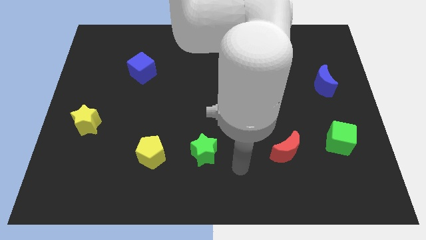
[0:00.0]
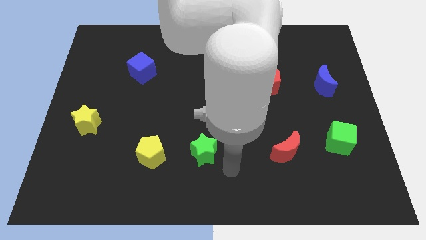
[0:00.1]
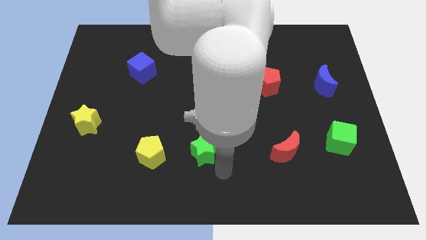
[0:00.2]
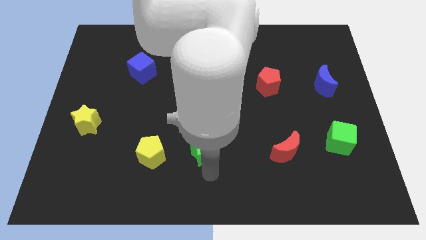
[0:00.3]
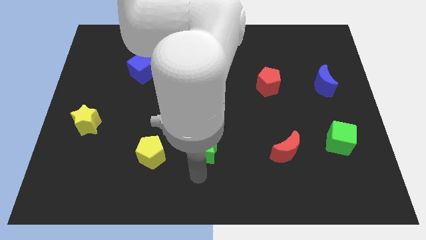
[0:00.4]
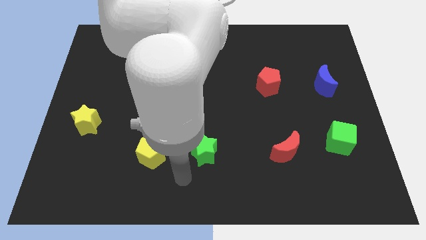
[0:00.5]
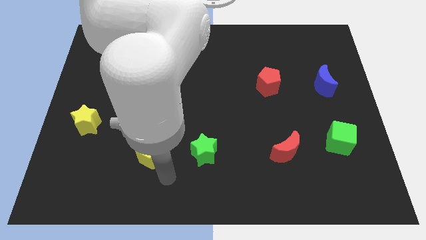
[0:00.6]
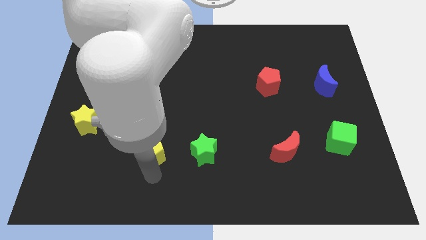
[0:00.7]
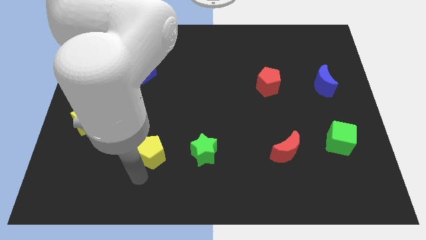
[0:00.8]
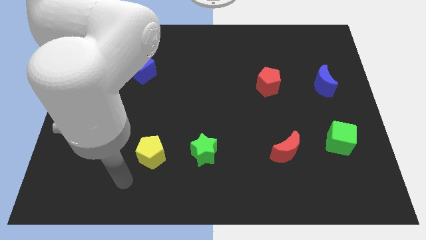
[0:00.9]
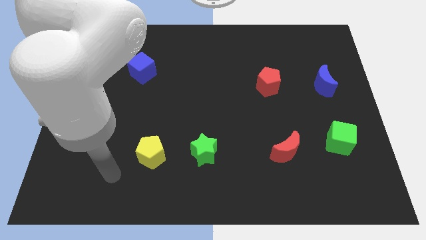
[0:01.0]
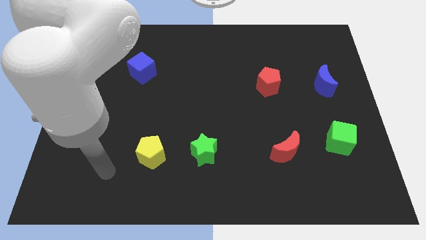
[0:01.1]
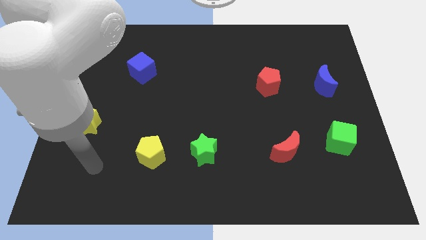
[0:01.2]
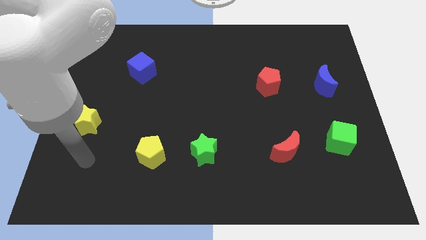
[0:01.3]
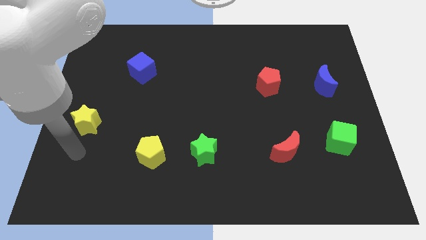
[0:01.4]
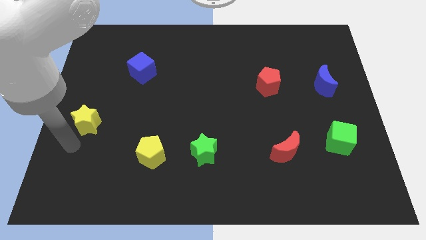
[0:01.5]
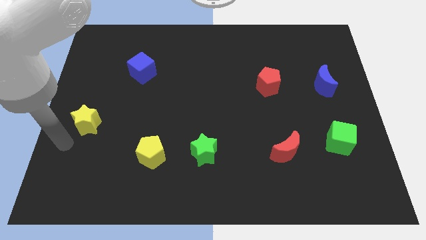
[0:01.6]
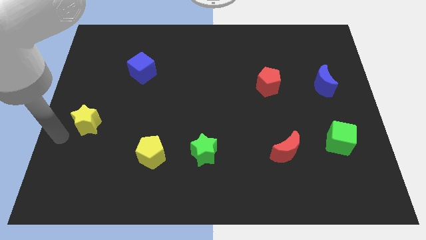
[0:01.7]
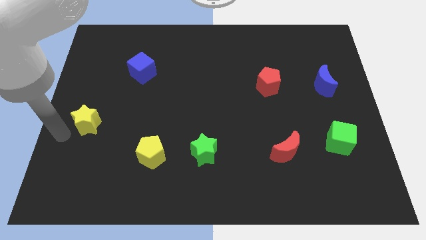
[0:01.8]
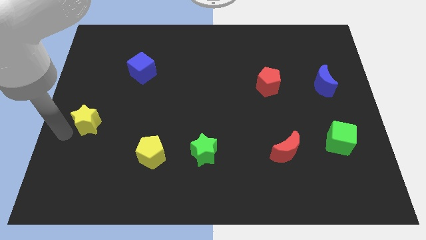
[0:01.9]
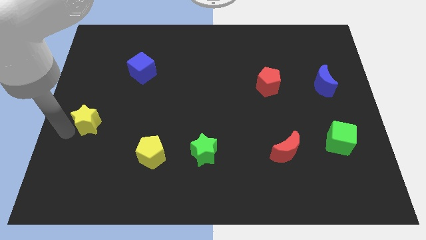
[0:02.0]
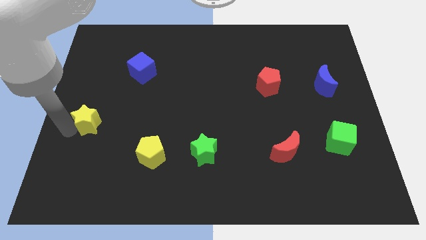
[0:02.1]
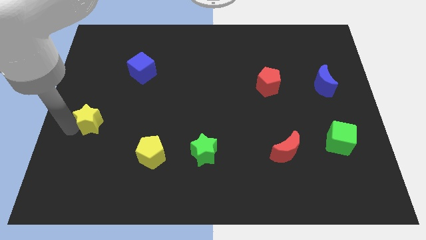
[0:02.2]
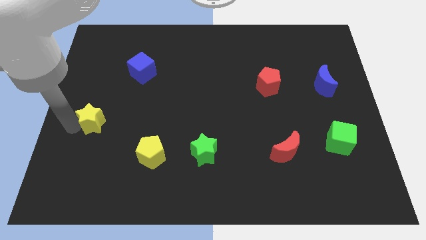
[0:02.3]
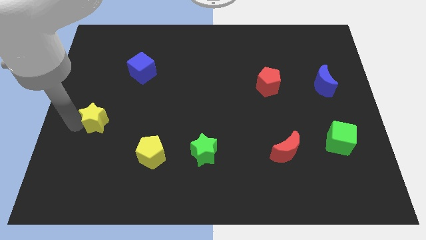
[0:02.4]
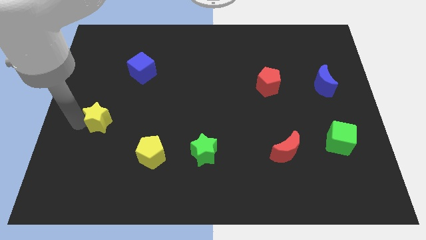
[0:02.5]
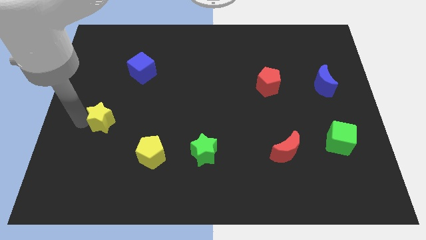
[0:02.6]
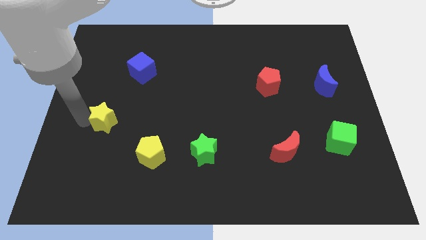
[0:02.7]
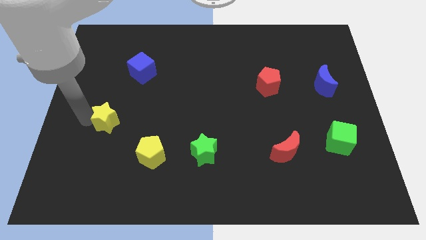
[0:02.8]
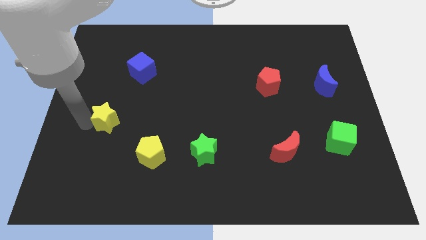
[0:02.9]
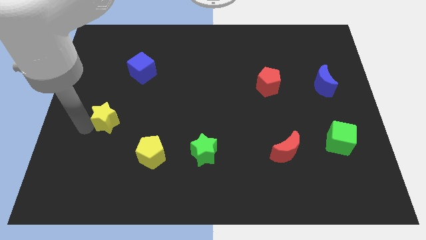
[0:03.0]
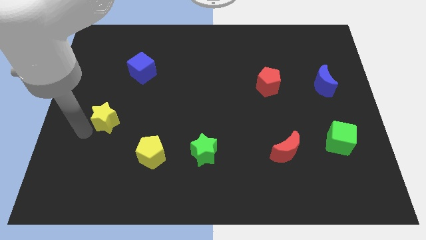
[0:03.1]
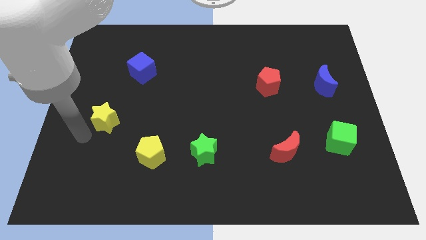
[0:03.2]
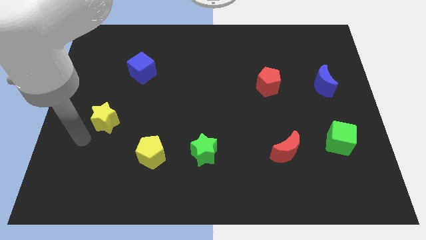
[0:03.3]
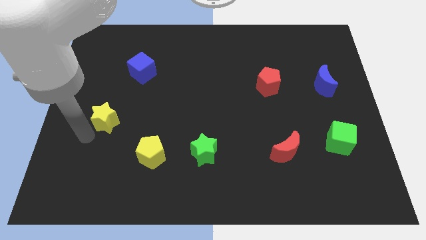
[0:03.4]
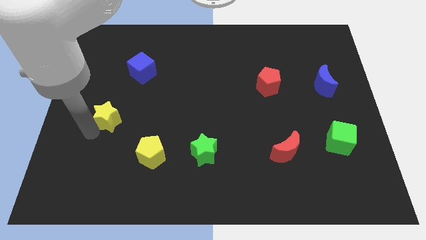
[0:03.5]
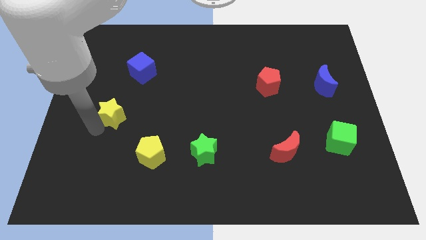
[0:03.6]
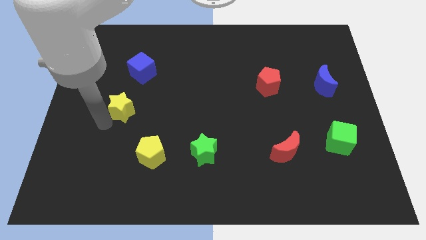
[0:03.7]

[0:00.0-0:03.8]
push the yellow star upwards and right diagonally slightly

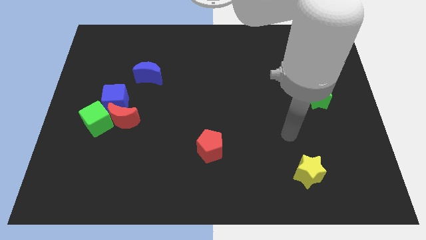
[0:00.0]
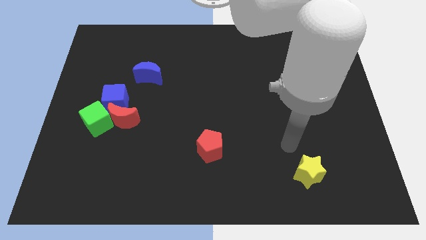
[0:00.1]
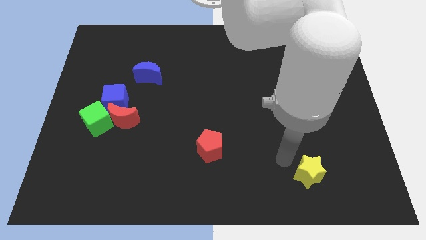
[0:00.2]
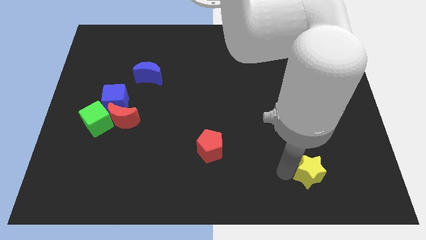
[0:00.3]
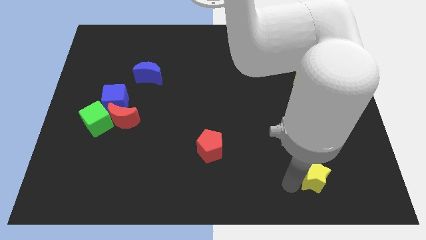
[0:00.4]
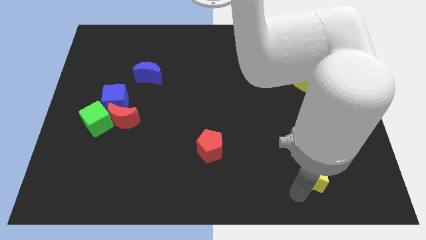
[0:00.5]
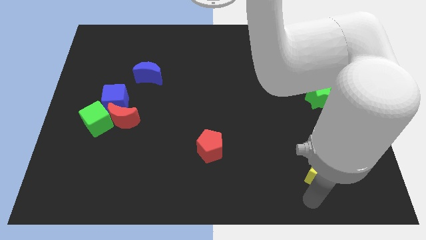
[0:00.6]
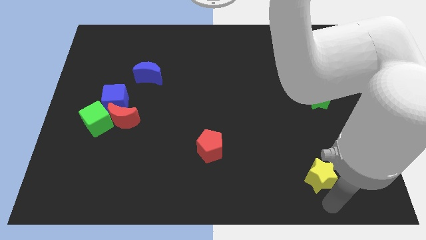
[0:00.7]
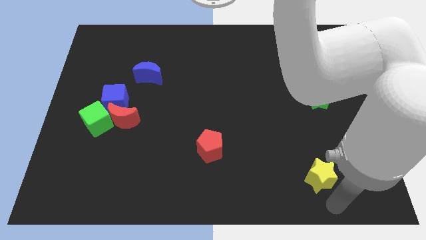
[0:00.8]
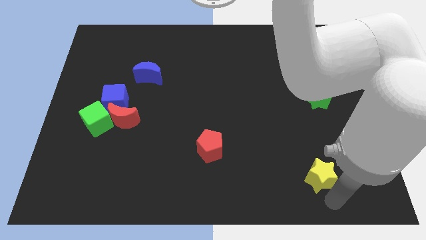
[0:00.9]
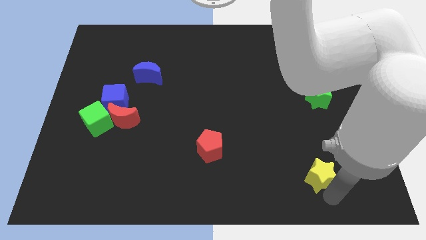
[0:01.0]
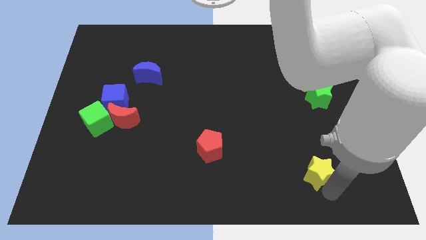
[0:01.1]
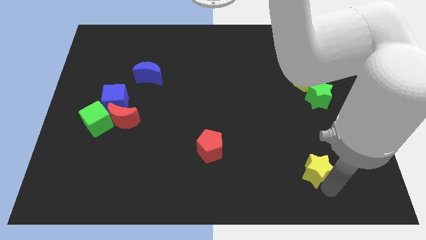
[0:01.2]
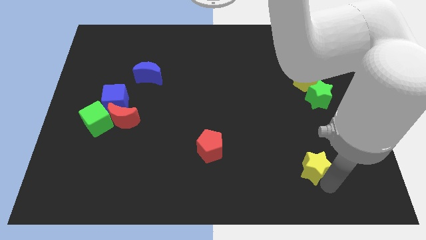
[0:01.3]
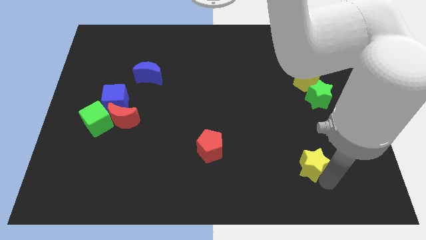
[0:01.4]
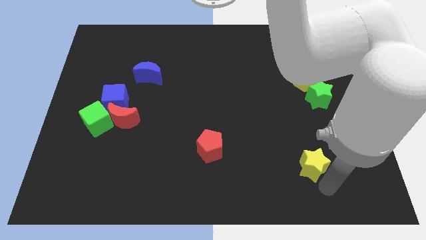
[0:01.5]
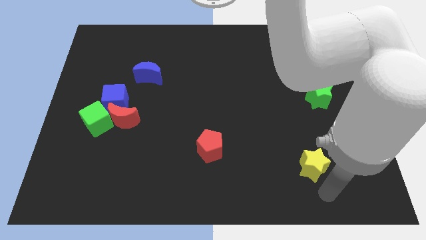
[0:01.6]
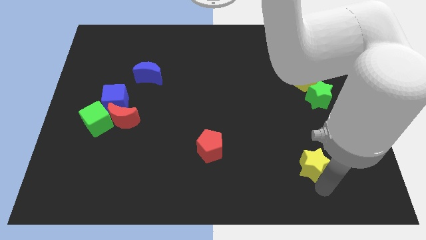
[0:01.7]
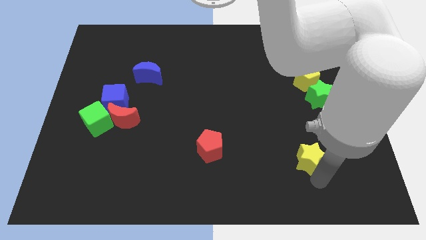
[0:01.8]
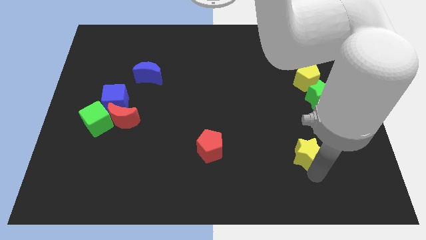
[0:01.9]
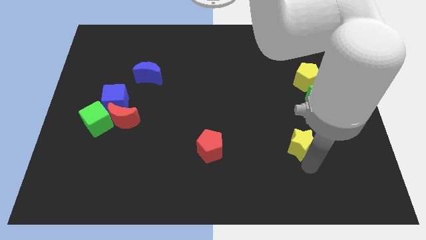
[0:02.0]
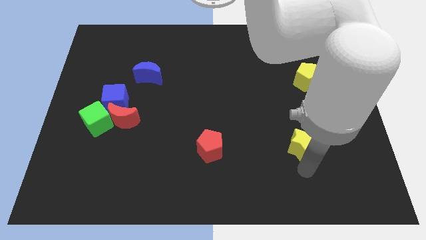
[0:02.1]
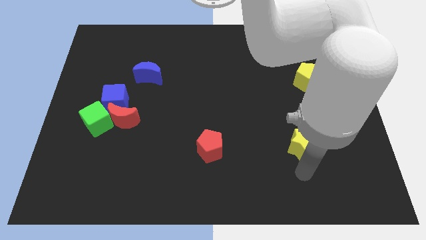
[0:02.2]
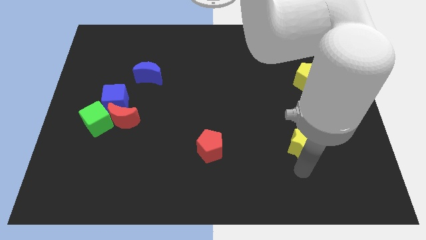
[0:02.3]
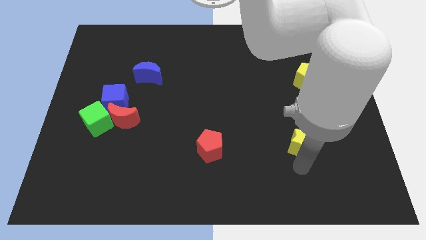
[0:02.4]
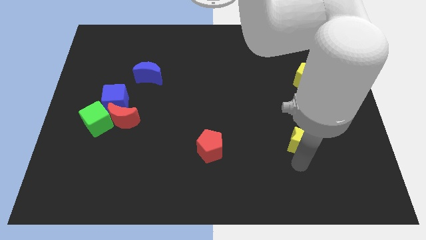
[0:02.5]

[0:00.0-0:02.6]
slightly slide the yellow star upwards

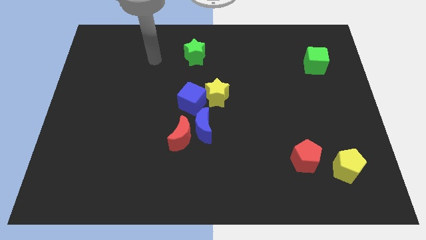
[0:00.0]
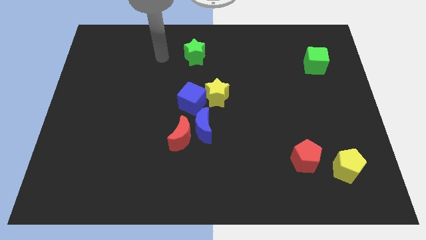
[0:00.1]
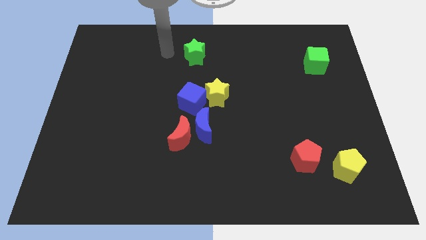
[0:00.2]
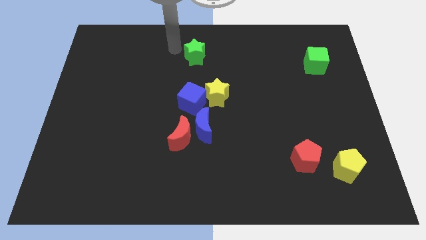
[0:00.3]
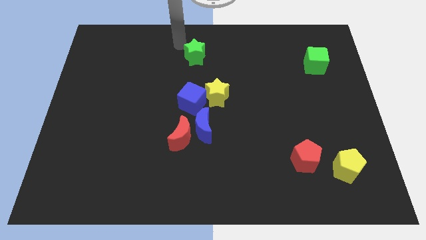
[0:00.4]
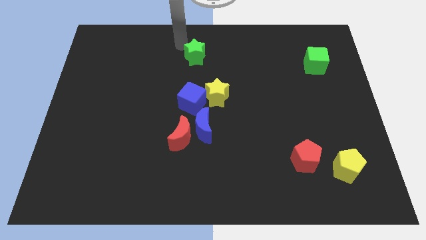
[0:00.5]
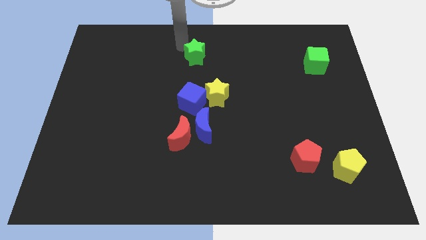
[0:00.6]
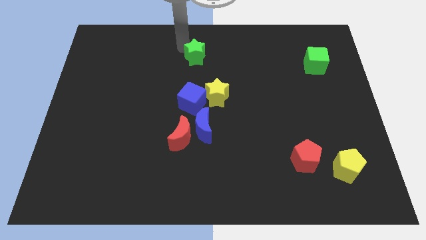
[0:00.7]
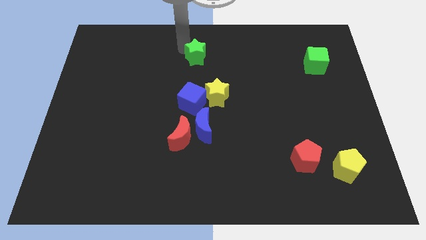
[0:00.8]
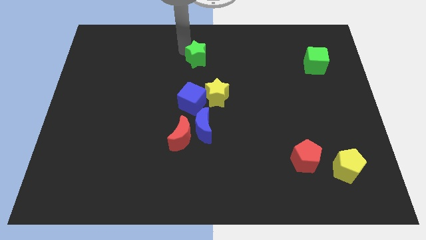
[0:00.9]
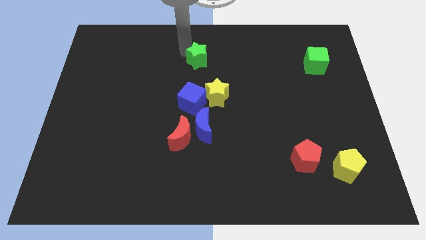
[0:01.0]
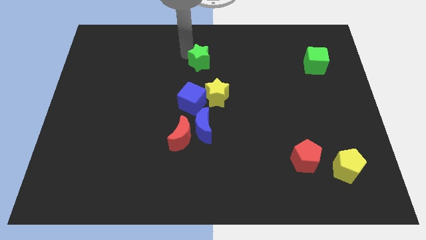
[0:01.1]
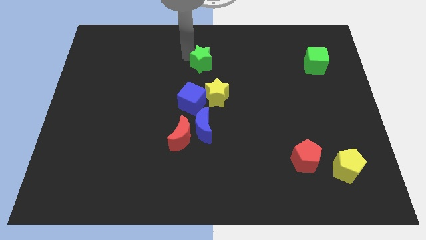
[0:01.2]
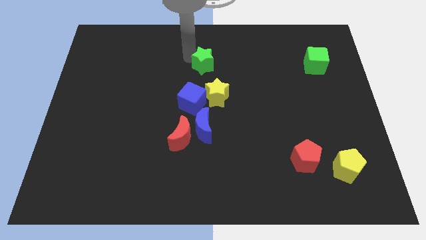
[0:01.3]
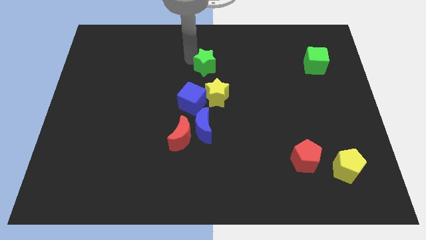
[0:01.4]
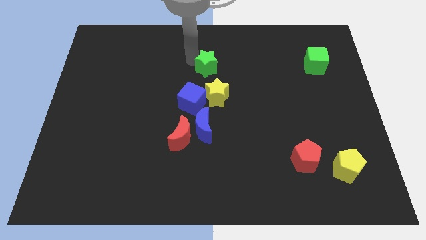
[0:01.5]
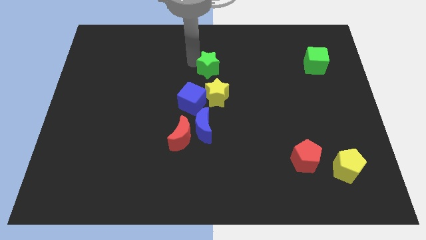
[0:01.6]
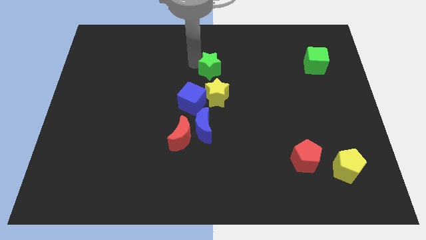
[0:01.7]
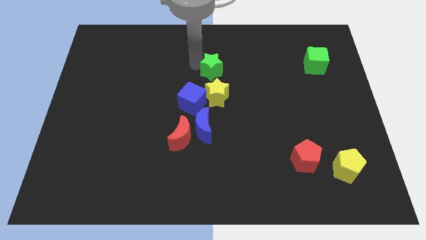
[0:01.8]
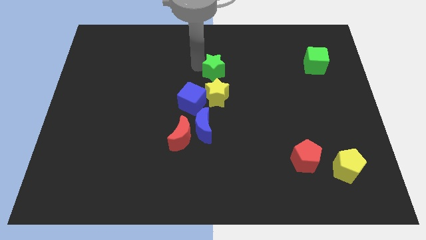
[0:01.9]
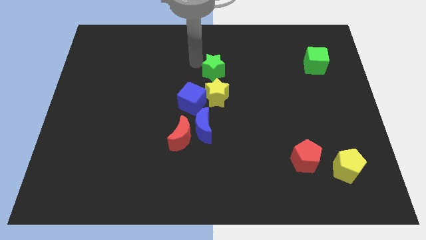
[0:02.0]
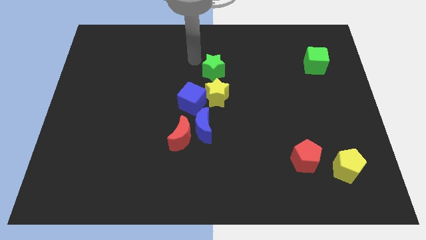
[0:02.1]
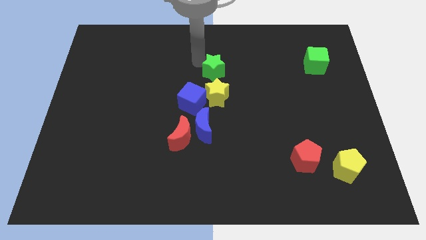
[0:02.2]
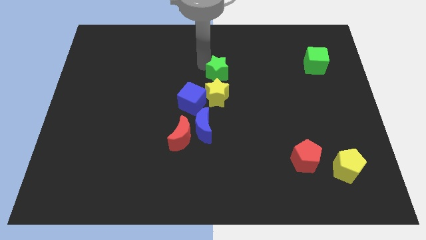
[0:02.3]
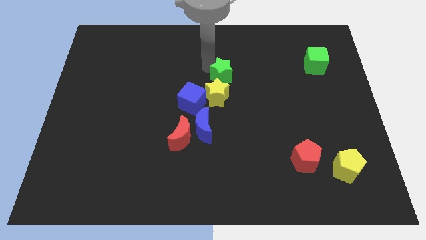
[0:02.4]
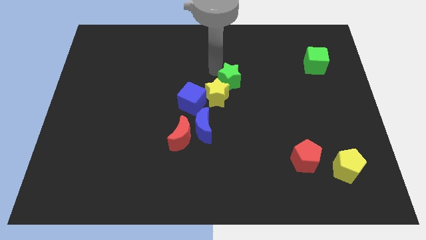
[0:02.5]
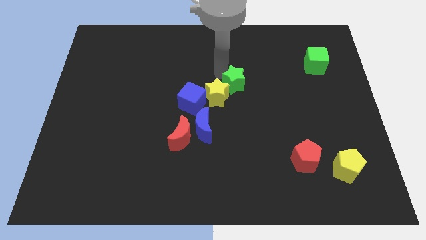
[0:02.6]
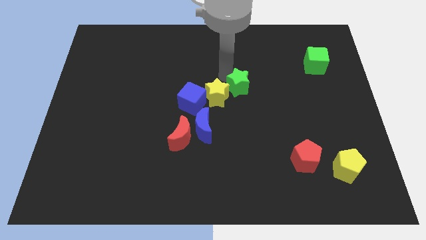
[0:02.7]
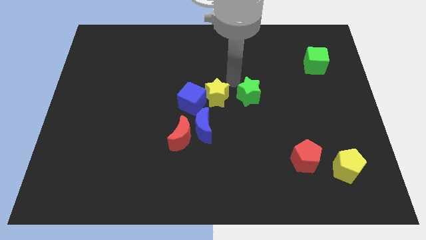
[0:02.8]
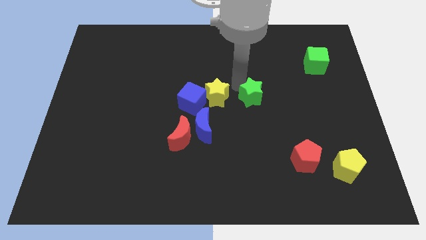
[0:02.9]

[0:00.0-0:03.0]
slide the green star down and right
